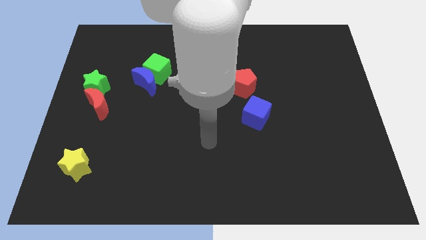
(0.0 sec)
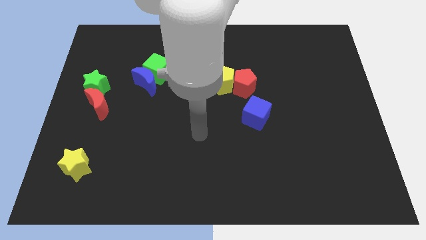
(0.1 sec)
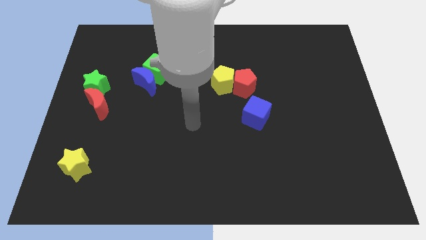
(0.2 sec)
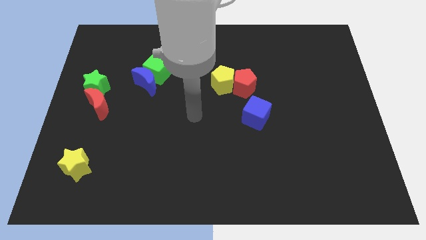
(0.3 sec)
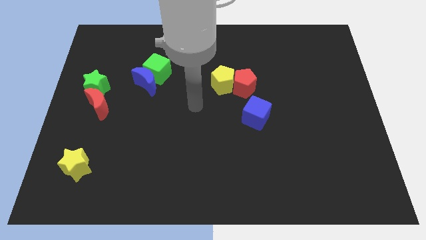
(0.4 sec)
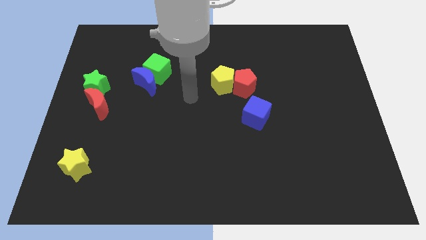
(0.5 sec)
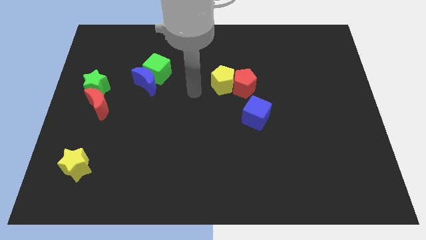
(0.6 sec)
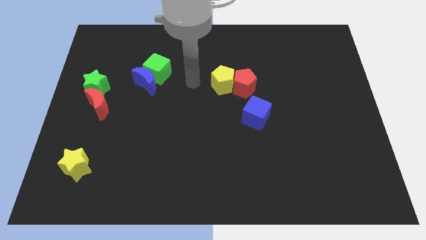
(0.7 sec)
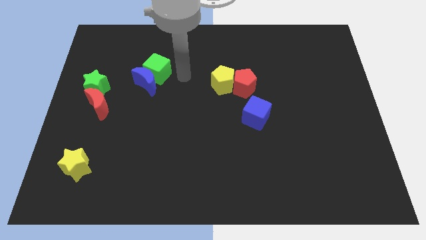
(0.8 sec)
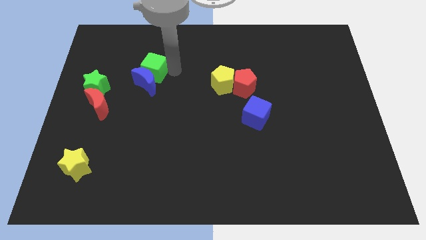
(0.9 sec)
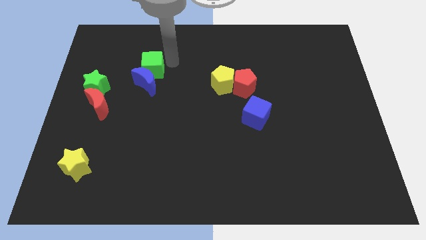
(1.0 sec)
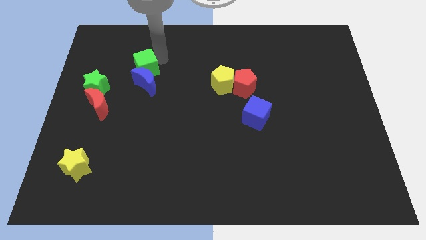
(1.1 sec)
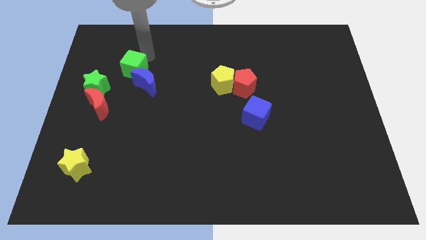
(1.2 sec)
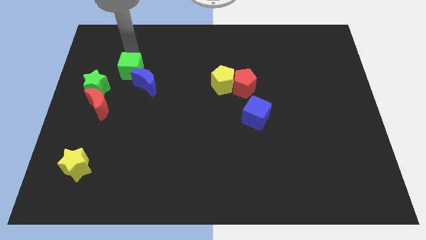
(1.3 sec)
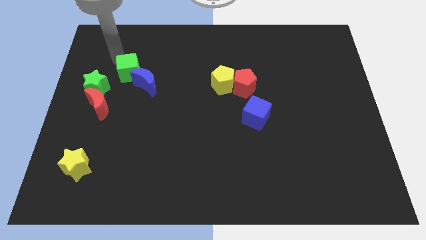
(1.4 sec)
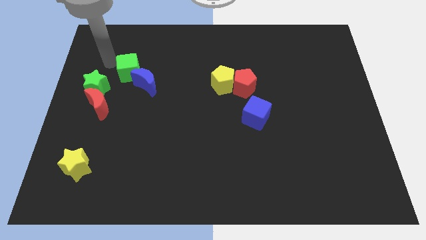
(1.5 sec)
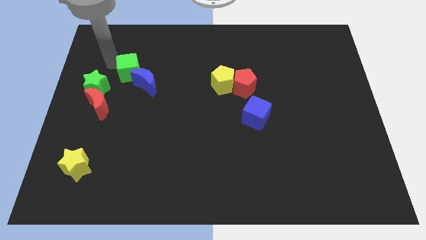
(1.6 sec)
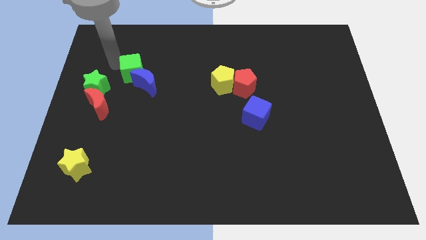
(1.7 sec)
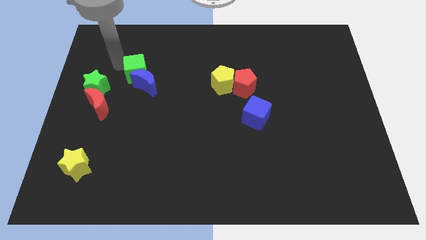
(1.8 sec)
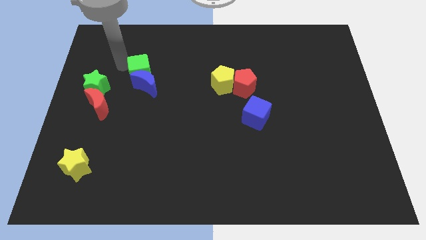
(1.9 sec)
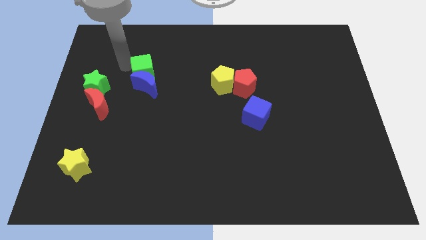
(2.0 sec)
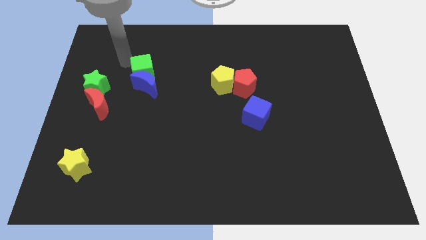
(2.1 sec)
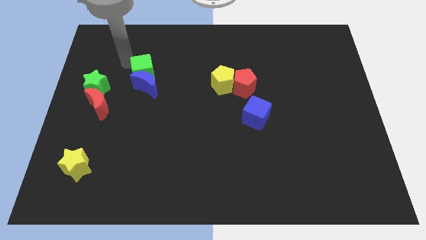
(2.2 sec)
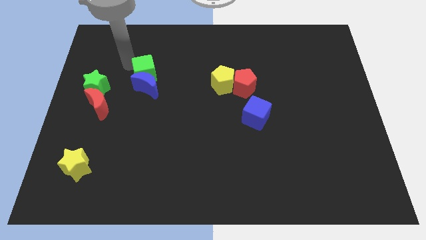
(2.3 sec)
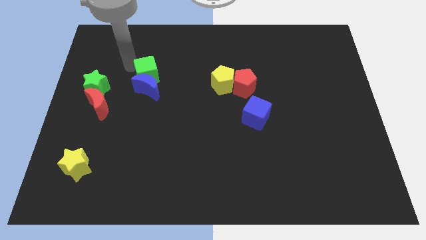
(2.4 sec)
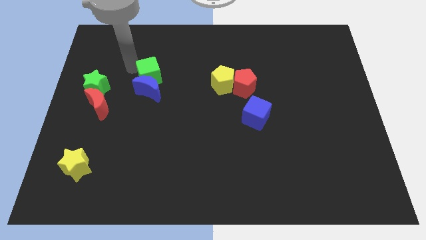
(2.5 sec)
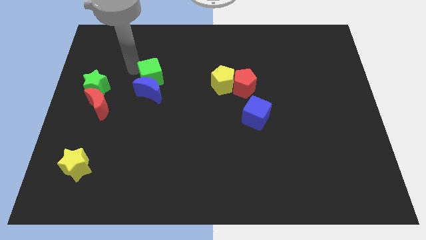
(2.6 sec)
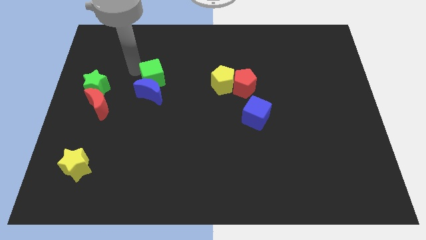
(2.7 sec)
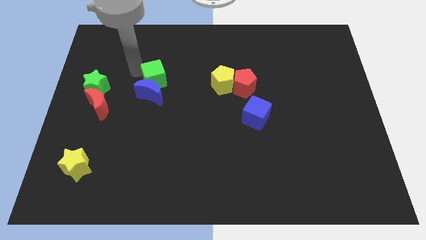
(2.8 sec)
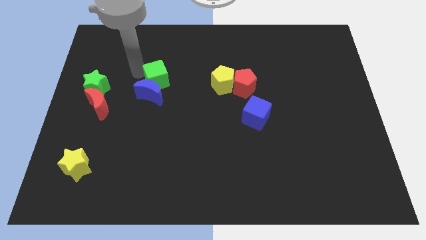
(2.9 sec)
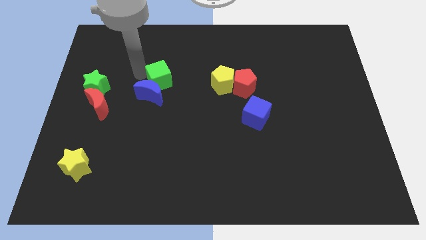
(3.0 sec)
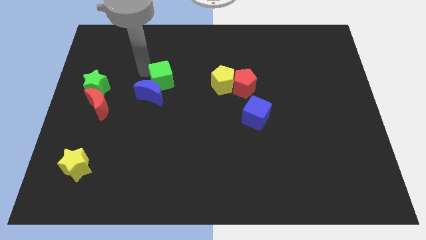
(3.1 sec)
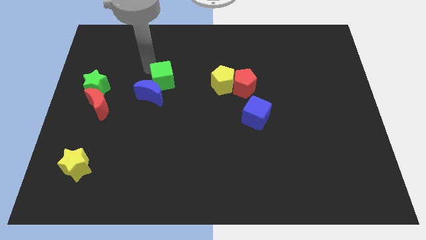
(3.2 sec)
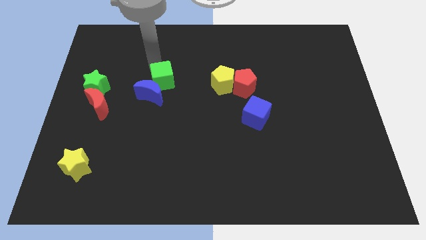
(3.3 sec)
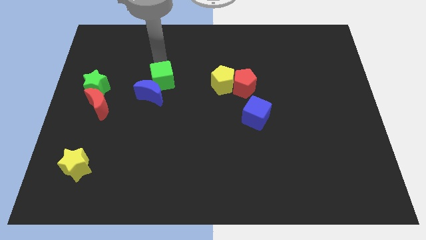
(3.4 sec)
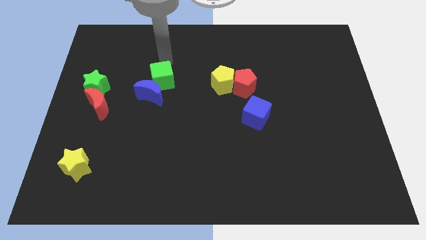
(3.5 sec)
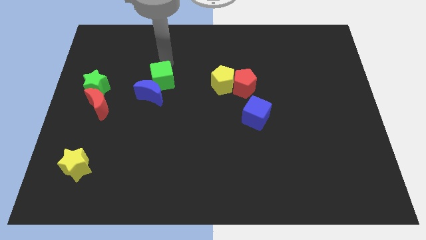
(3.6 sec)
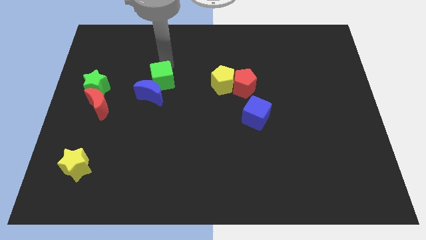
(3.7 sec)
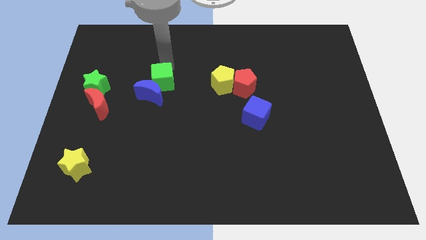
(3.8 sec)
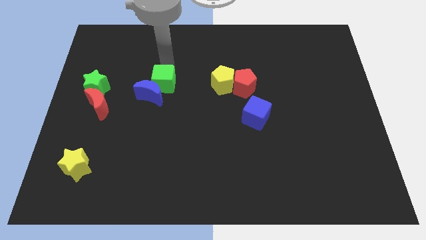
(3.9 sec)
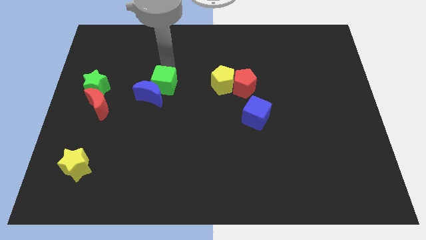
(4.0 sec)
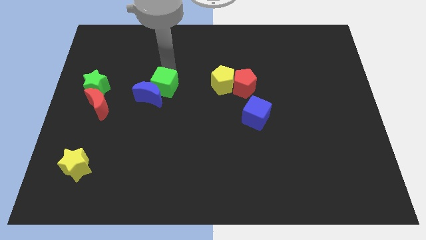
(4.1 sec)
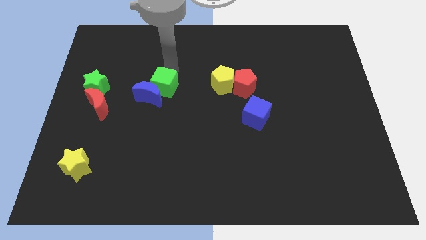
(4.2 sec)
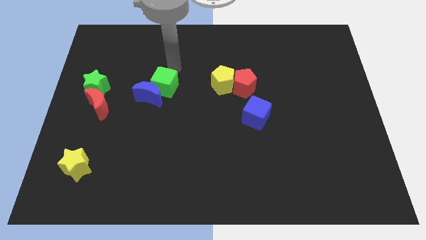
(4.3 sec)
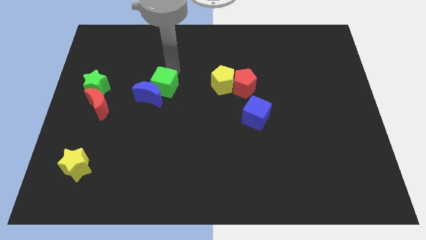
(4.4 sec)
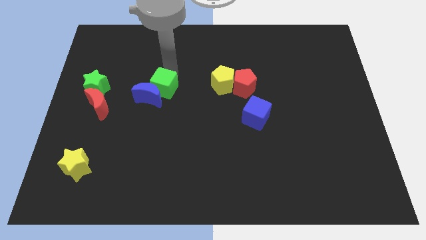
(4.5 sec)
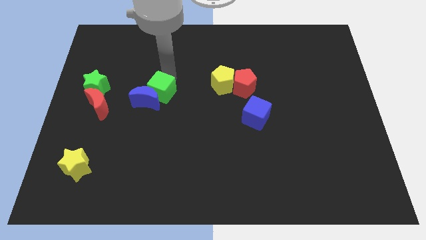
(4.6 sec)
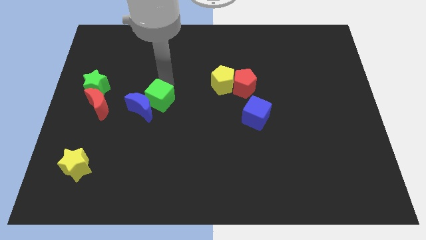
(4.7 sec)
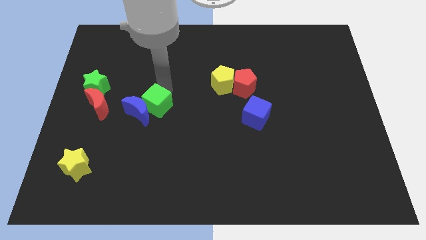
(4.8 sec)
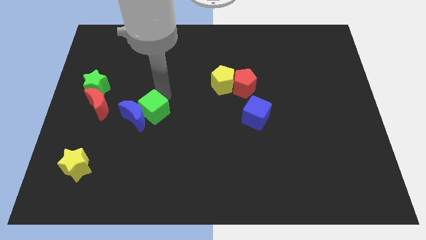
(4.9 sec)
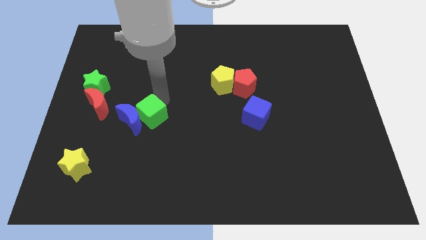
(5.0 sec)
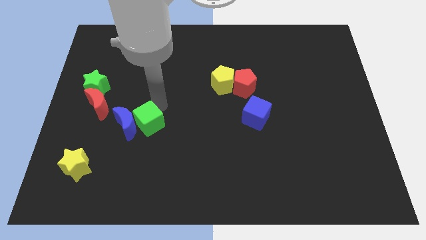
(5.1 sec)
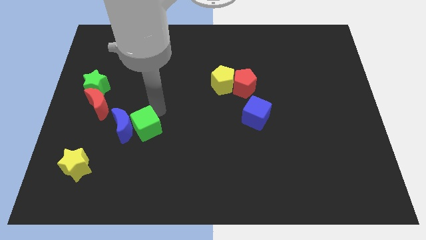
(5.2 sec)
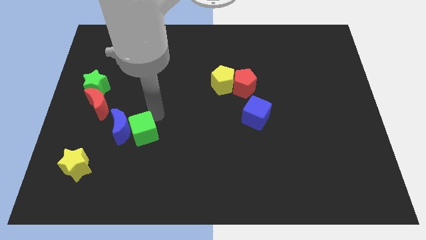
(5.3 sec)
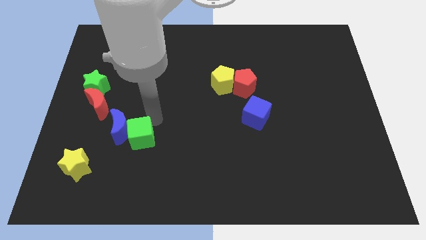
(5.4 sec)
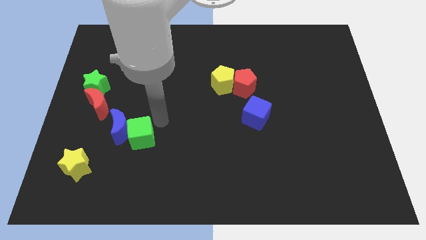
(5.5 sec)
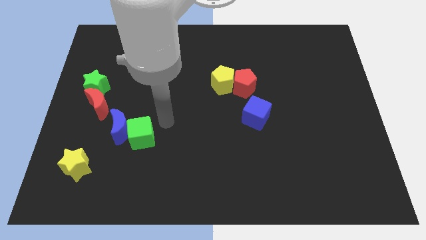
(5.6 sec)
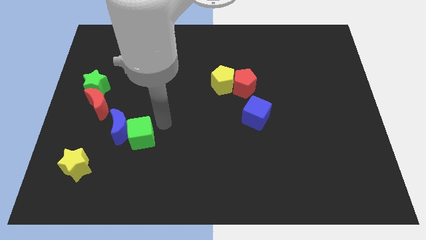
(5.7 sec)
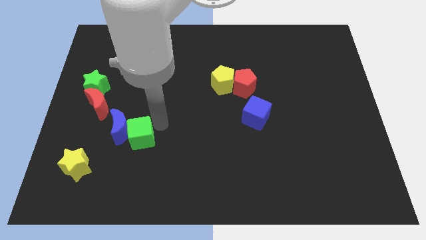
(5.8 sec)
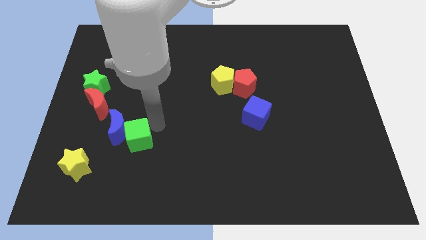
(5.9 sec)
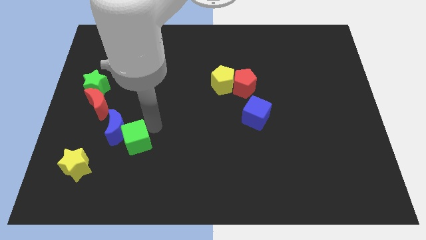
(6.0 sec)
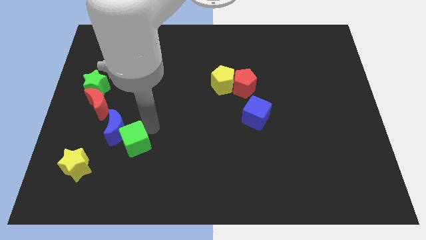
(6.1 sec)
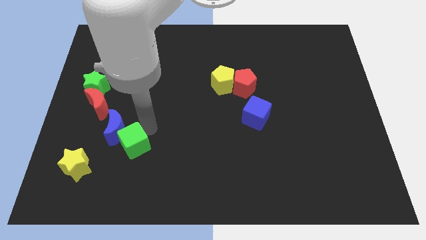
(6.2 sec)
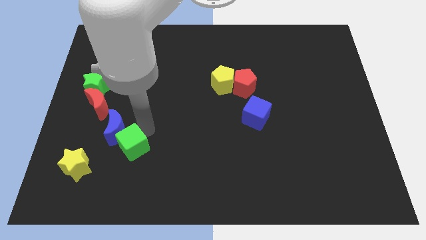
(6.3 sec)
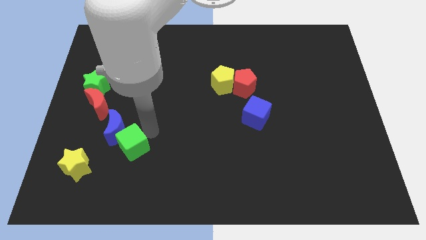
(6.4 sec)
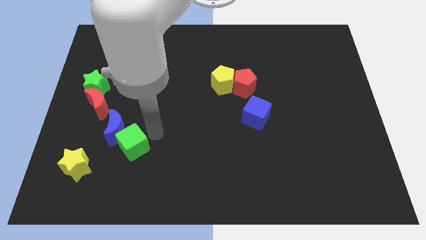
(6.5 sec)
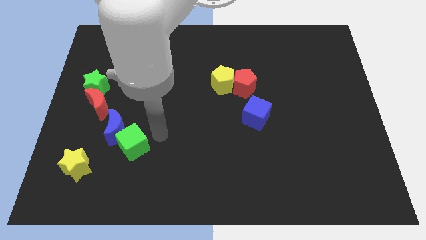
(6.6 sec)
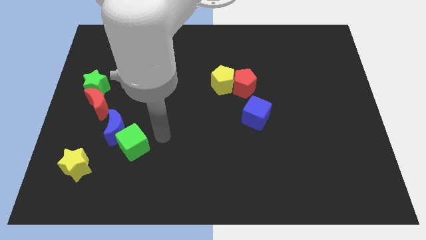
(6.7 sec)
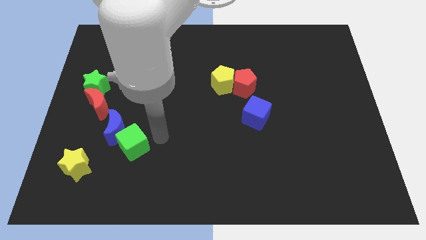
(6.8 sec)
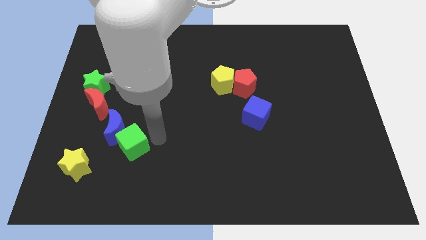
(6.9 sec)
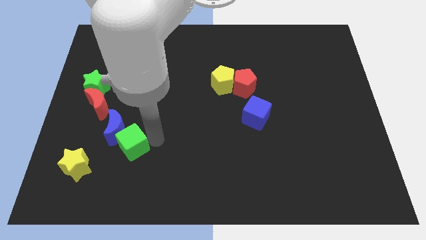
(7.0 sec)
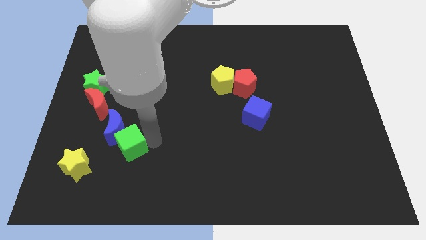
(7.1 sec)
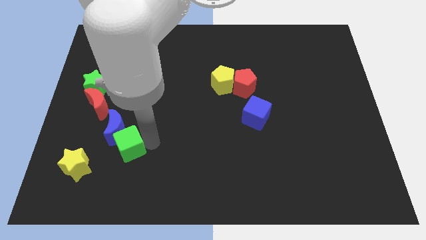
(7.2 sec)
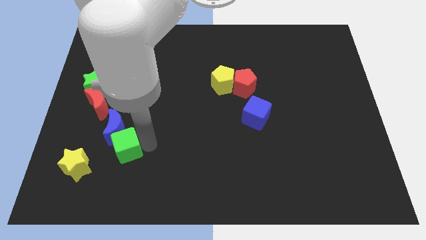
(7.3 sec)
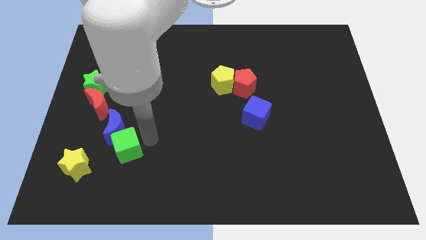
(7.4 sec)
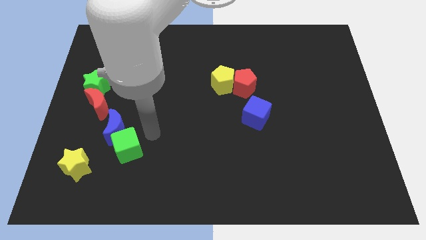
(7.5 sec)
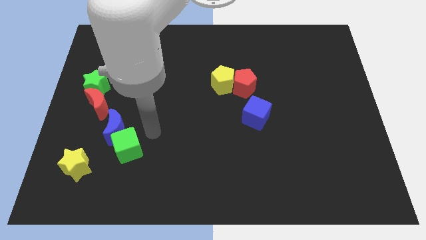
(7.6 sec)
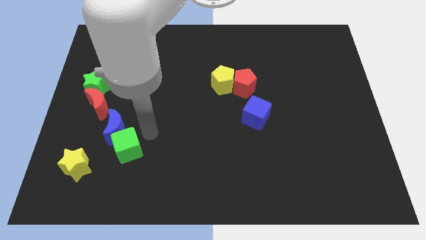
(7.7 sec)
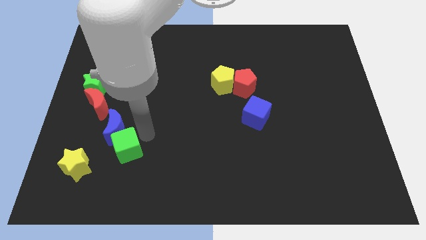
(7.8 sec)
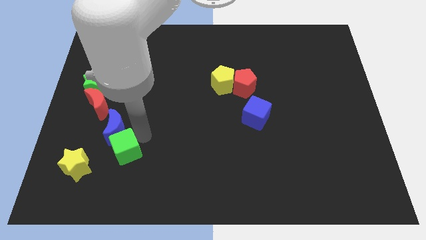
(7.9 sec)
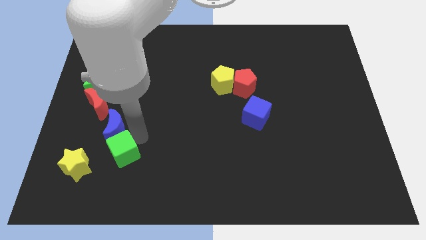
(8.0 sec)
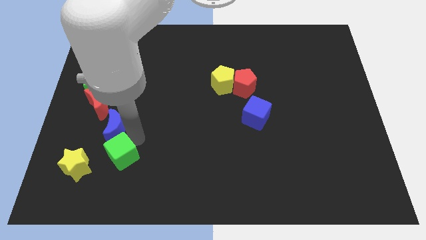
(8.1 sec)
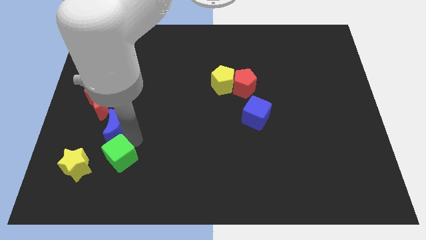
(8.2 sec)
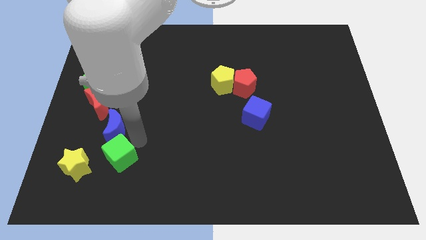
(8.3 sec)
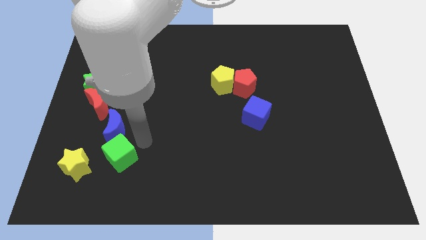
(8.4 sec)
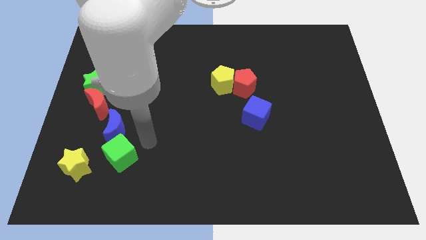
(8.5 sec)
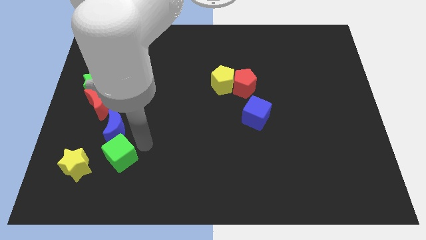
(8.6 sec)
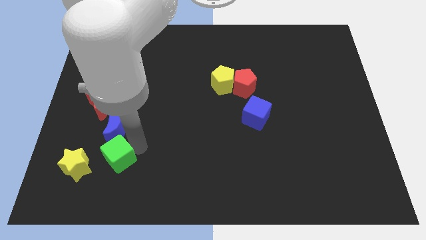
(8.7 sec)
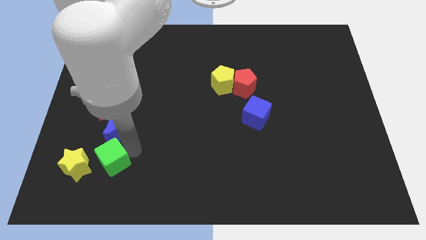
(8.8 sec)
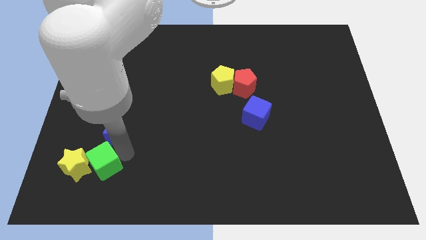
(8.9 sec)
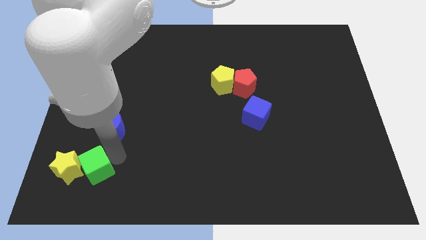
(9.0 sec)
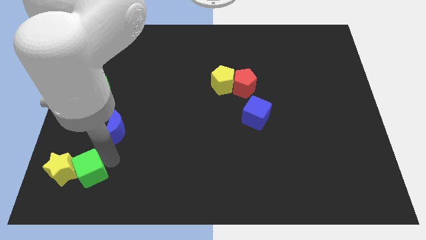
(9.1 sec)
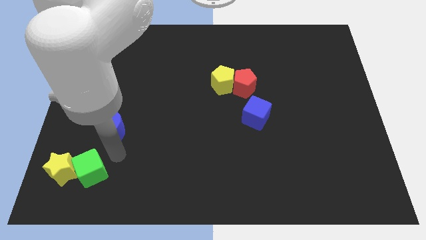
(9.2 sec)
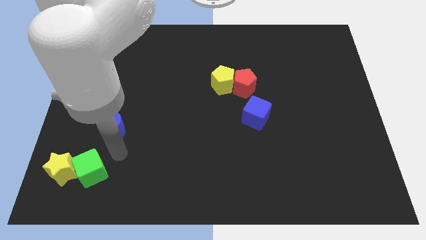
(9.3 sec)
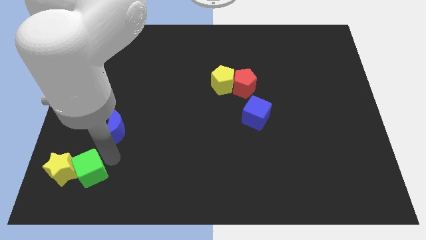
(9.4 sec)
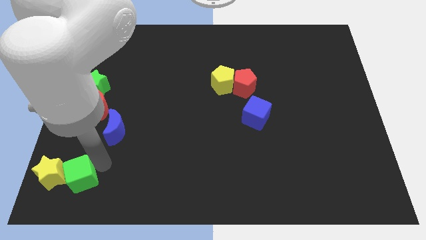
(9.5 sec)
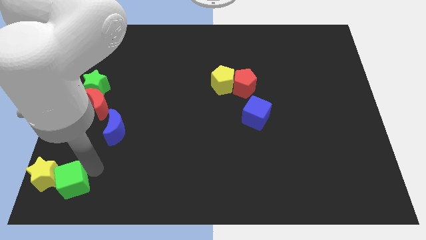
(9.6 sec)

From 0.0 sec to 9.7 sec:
slide the green cube to the bottom left corner
